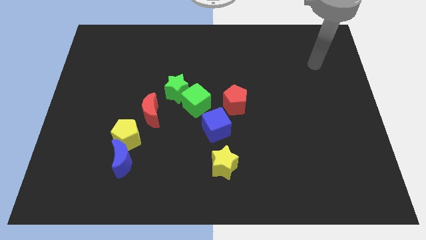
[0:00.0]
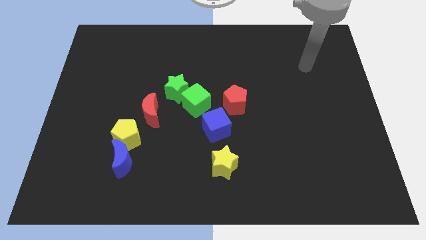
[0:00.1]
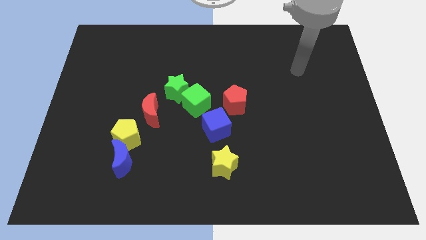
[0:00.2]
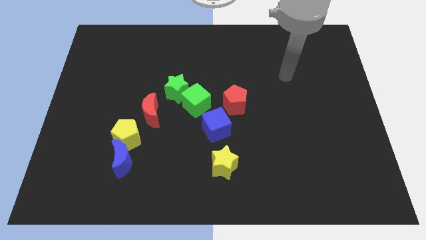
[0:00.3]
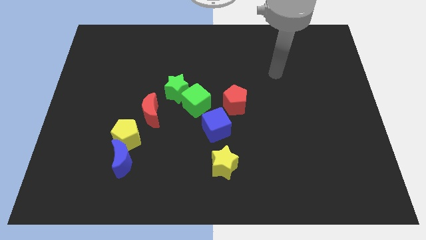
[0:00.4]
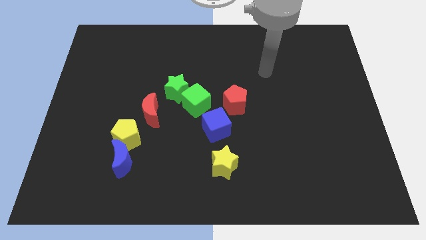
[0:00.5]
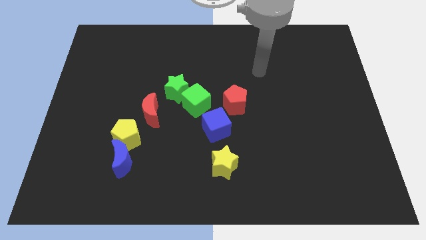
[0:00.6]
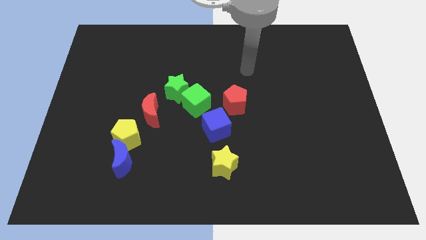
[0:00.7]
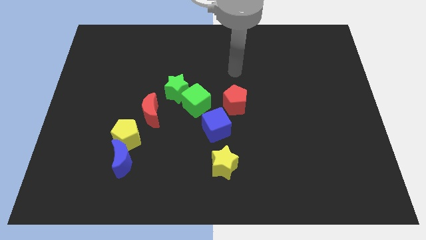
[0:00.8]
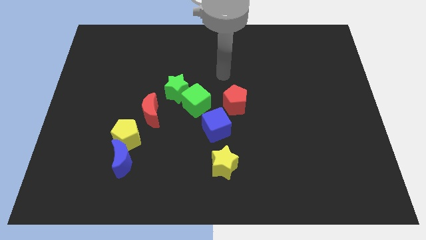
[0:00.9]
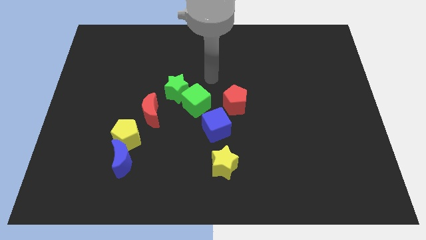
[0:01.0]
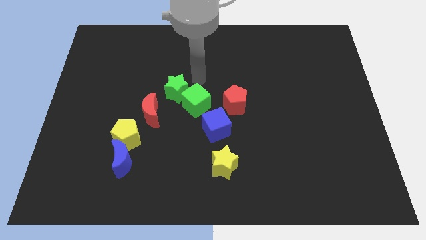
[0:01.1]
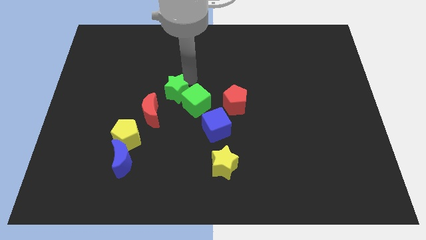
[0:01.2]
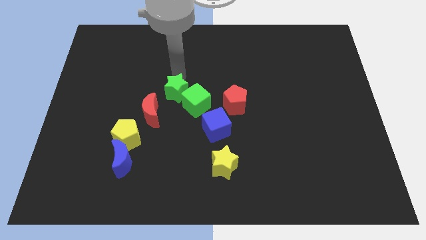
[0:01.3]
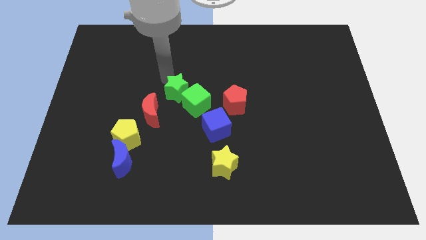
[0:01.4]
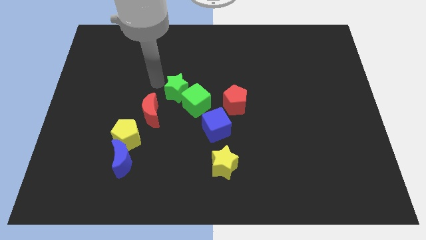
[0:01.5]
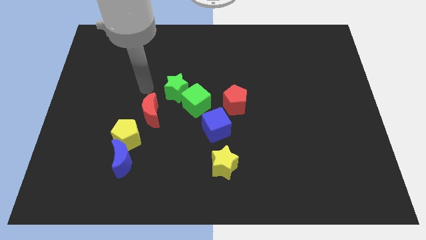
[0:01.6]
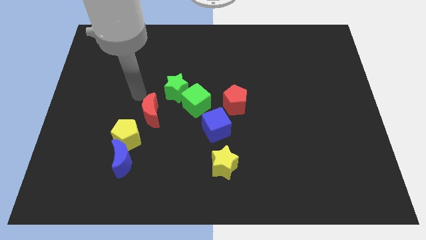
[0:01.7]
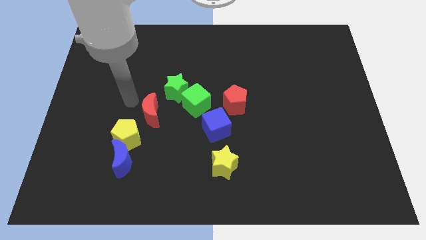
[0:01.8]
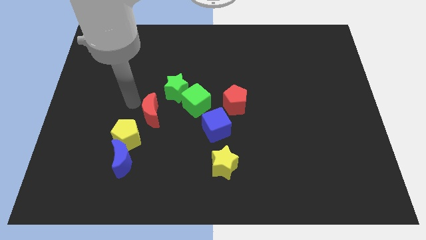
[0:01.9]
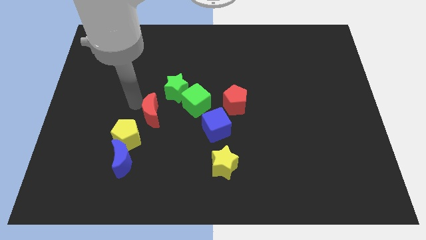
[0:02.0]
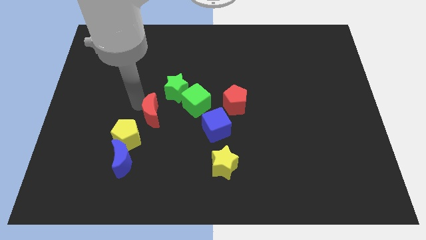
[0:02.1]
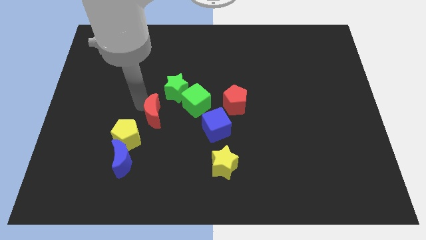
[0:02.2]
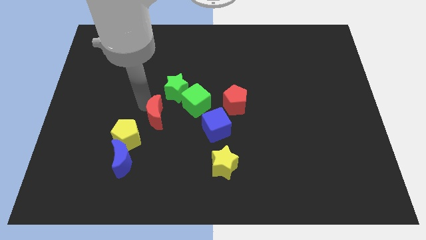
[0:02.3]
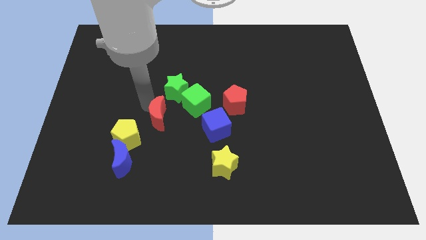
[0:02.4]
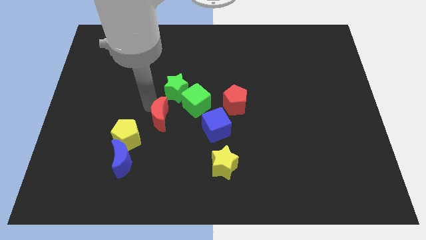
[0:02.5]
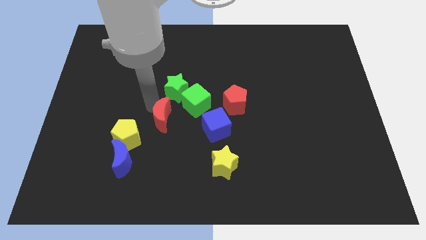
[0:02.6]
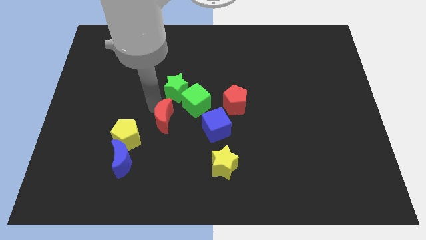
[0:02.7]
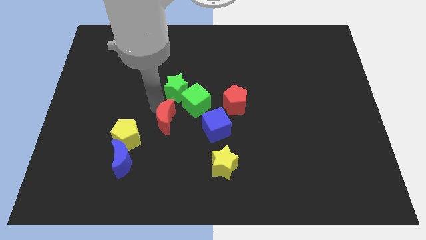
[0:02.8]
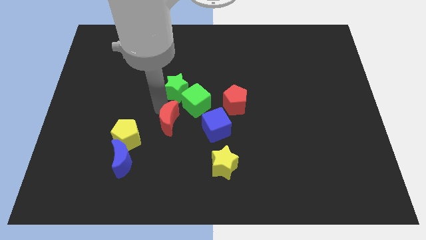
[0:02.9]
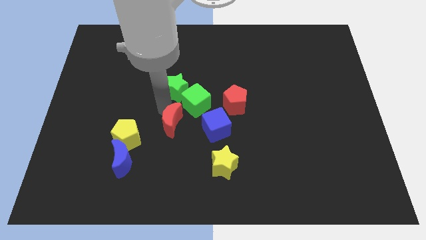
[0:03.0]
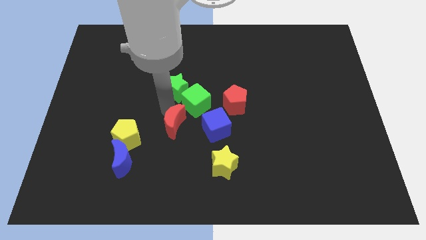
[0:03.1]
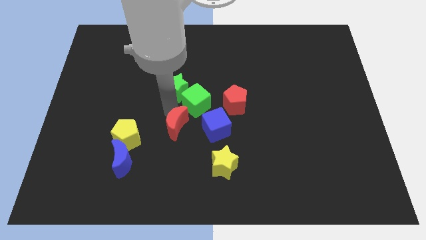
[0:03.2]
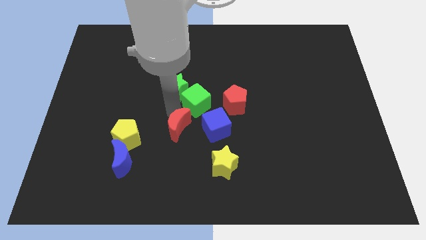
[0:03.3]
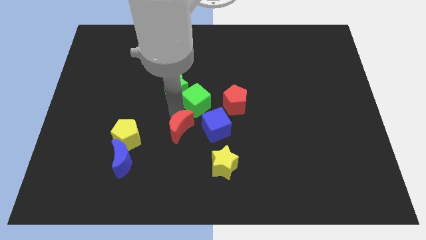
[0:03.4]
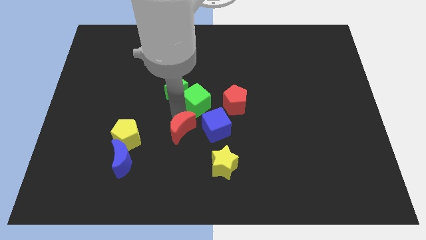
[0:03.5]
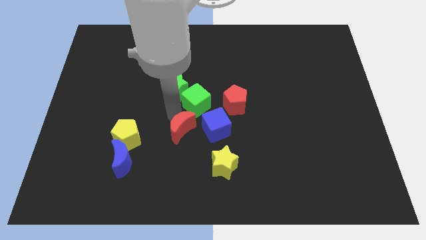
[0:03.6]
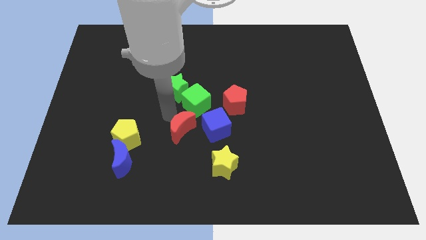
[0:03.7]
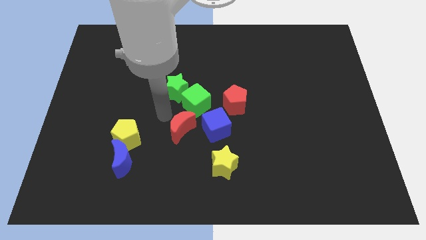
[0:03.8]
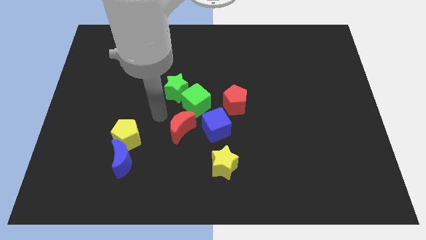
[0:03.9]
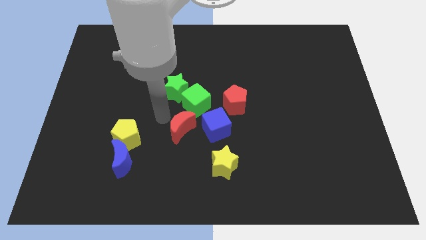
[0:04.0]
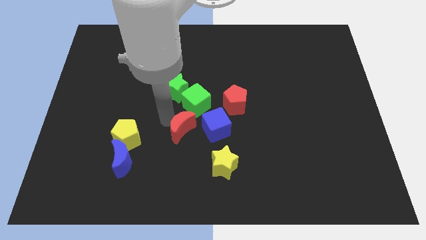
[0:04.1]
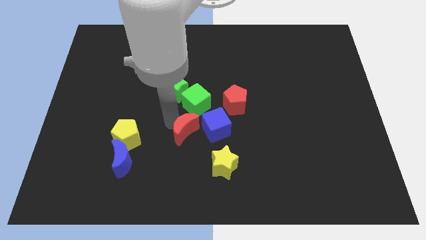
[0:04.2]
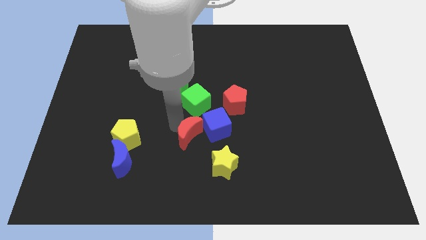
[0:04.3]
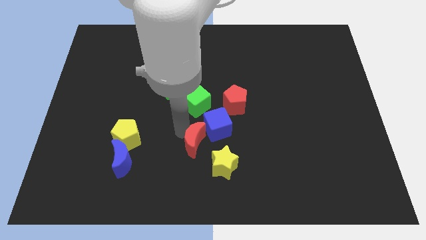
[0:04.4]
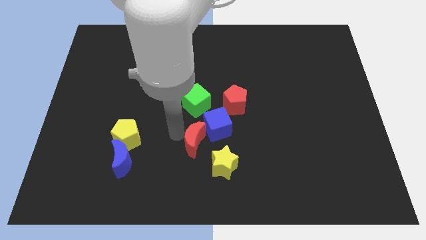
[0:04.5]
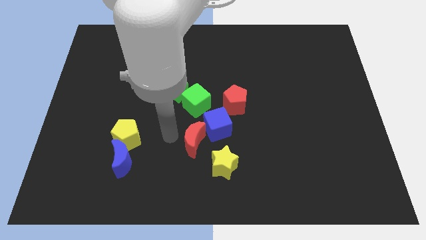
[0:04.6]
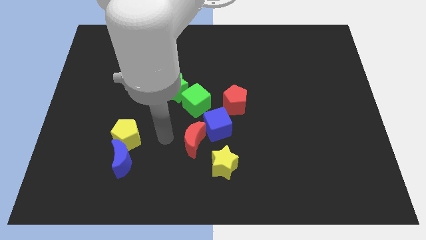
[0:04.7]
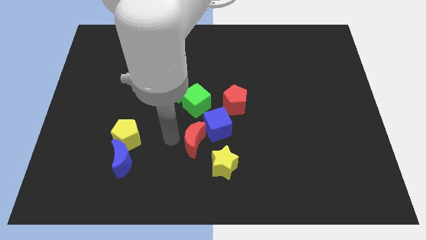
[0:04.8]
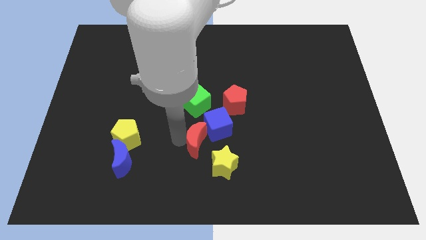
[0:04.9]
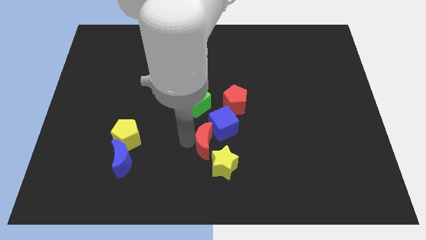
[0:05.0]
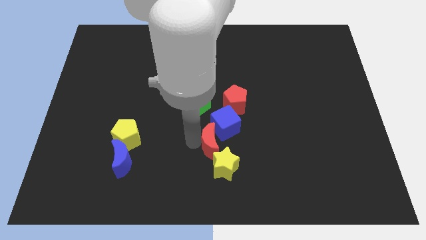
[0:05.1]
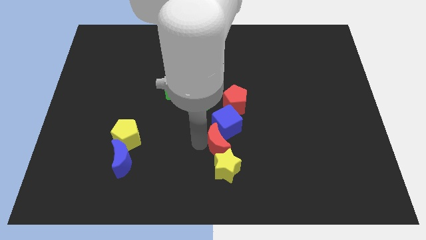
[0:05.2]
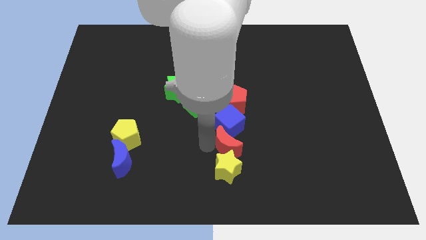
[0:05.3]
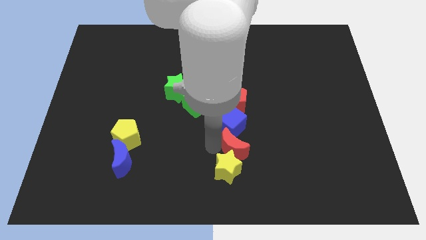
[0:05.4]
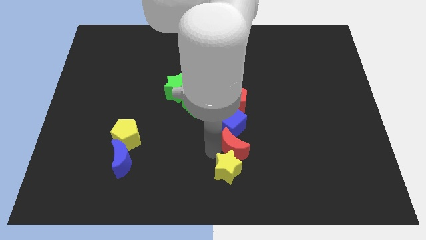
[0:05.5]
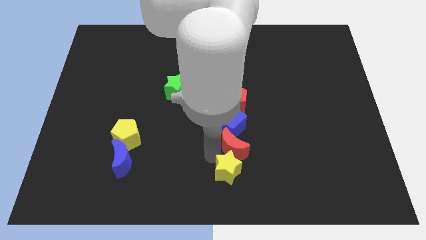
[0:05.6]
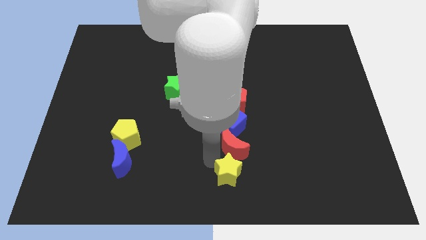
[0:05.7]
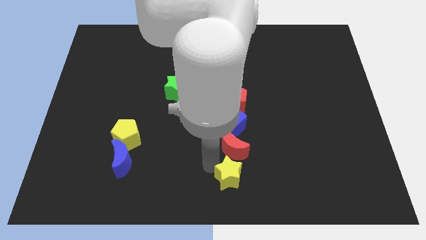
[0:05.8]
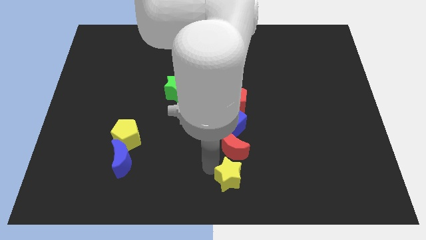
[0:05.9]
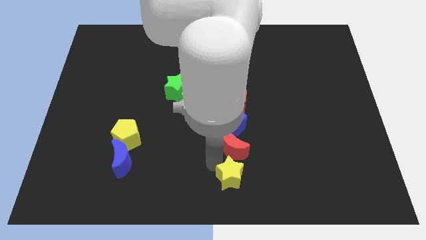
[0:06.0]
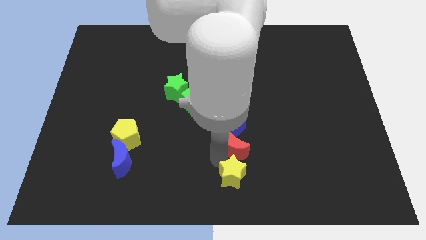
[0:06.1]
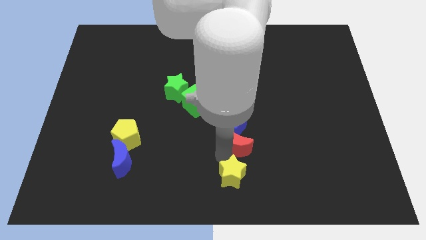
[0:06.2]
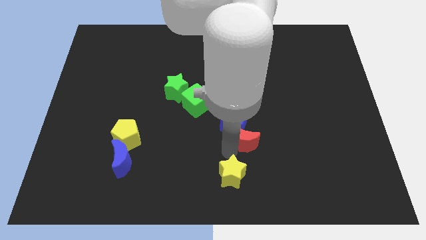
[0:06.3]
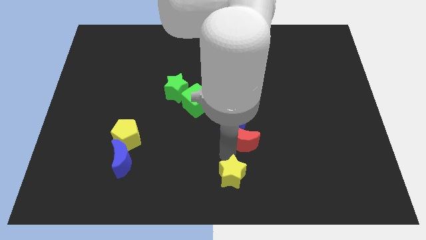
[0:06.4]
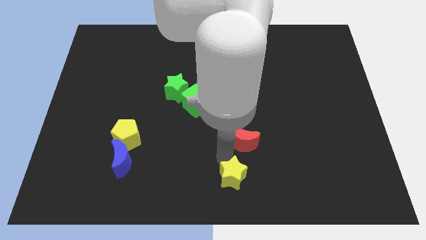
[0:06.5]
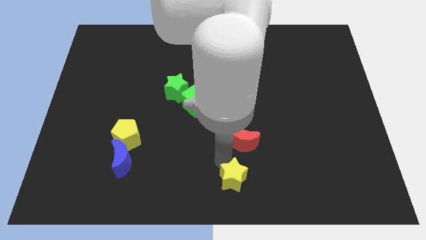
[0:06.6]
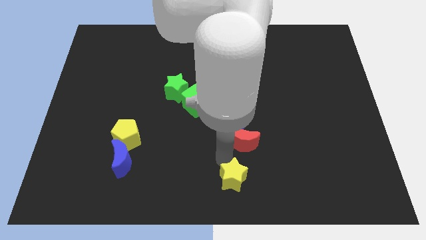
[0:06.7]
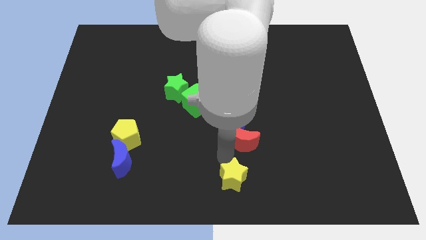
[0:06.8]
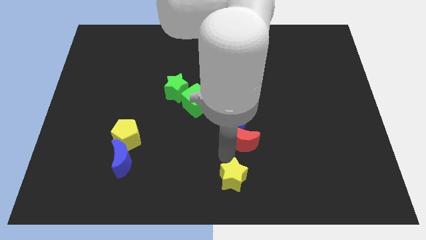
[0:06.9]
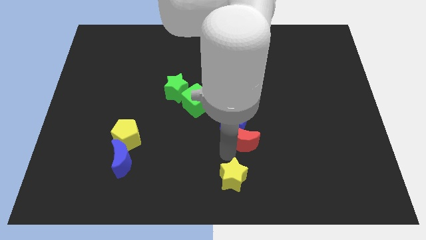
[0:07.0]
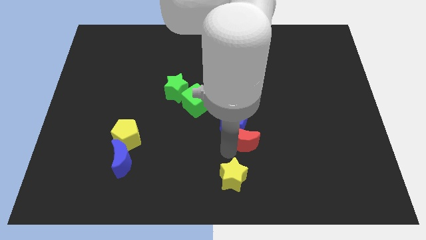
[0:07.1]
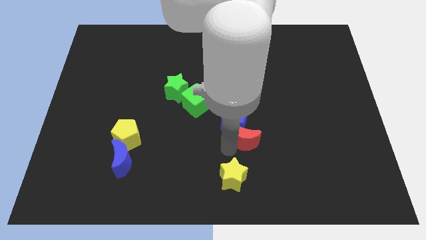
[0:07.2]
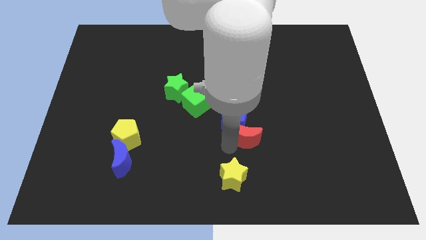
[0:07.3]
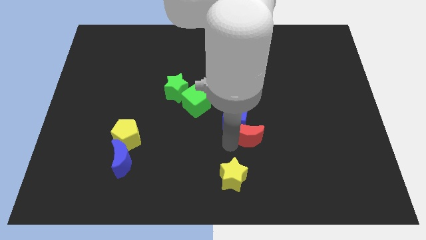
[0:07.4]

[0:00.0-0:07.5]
push the red moon right

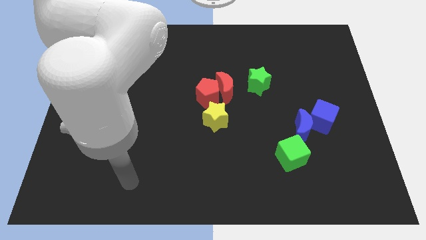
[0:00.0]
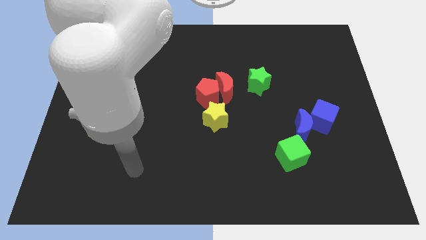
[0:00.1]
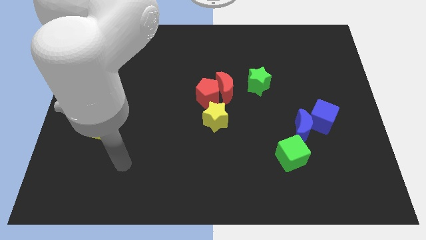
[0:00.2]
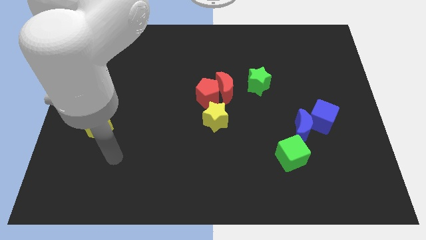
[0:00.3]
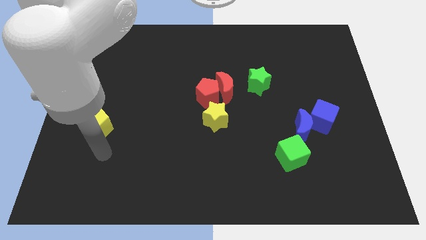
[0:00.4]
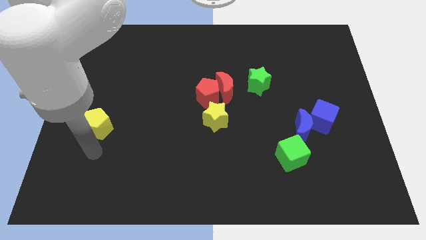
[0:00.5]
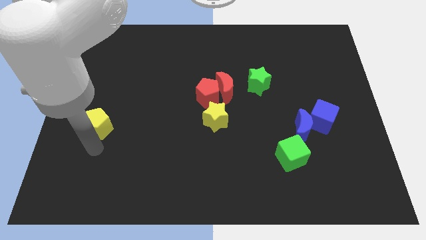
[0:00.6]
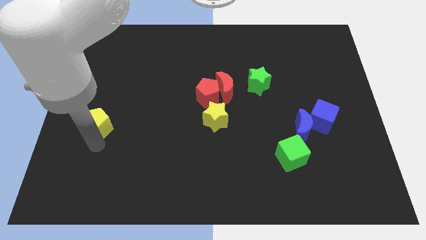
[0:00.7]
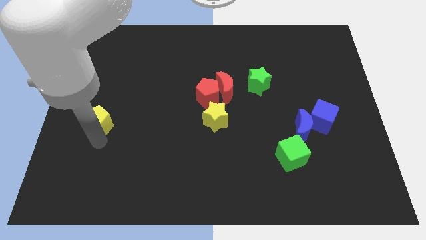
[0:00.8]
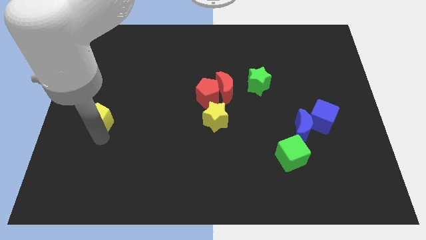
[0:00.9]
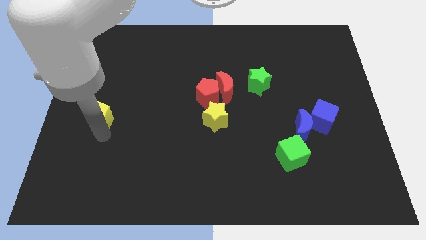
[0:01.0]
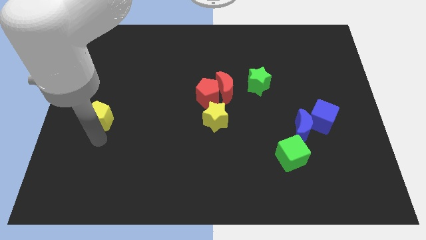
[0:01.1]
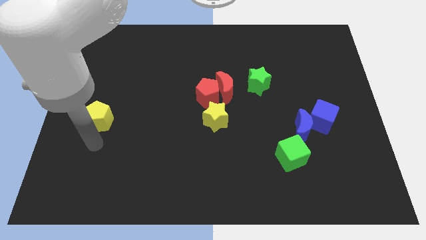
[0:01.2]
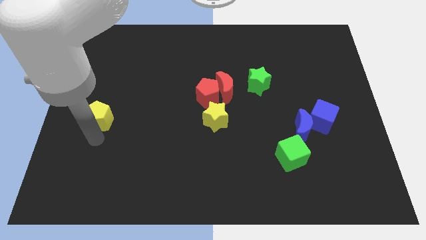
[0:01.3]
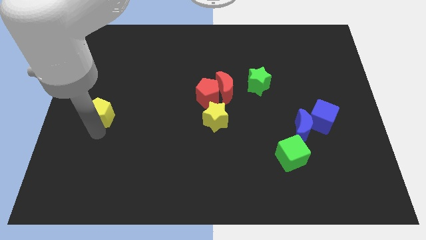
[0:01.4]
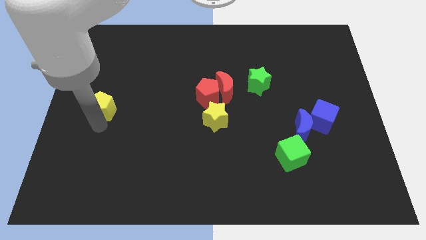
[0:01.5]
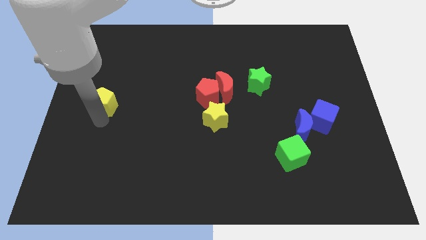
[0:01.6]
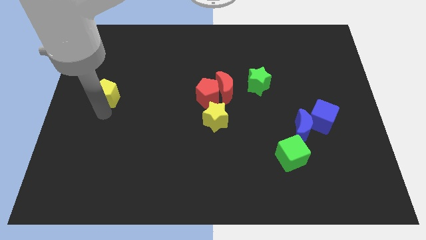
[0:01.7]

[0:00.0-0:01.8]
push the yellow pentagon slightly up
